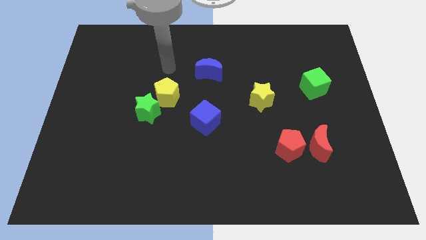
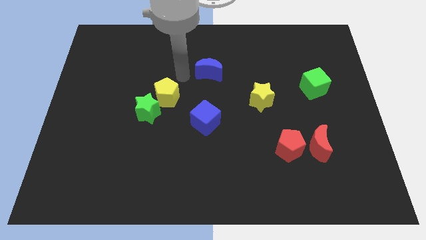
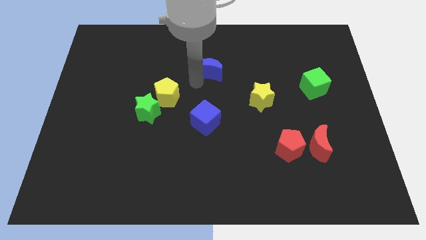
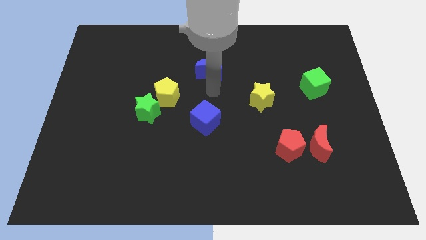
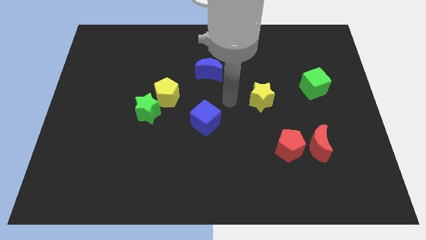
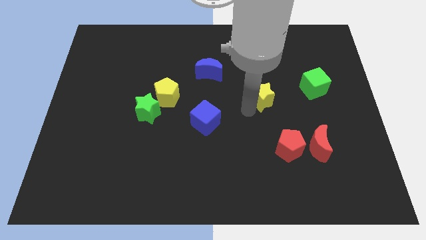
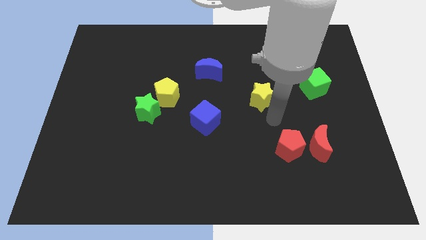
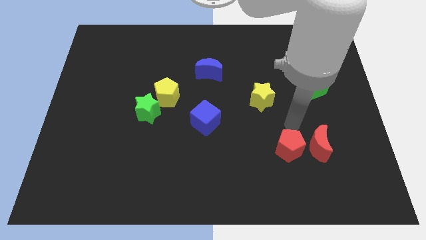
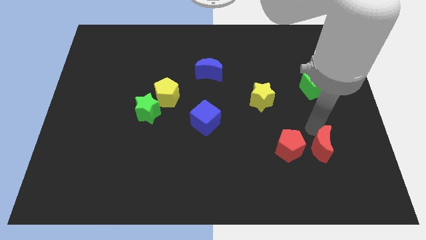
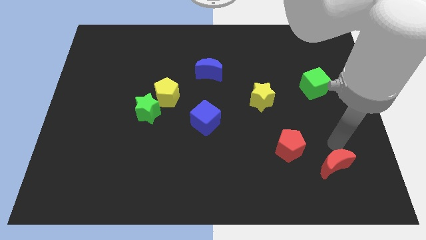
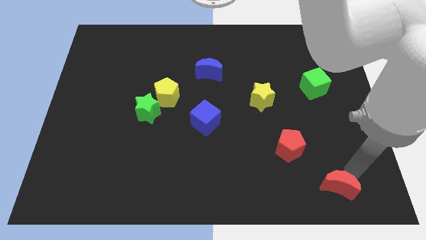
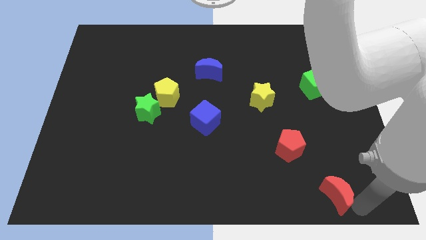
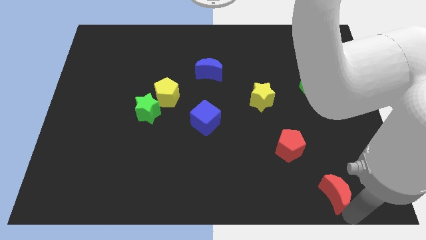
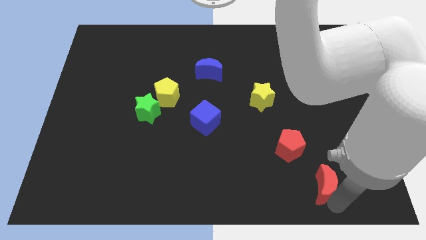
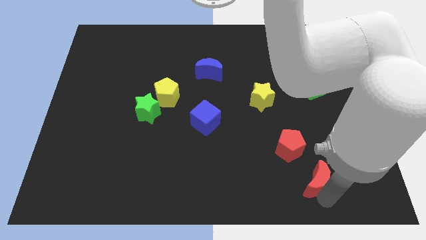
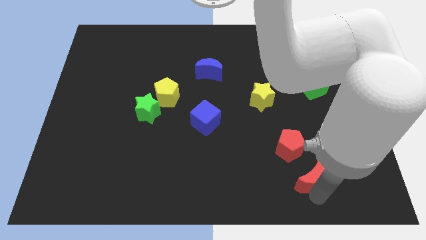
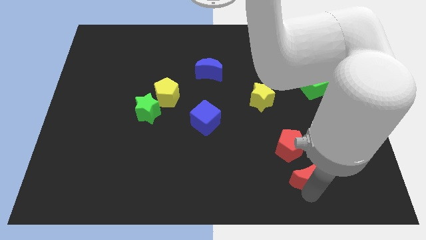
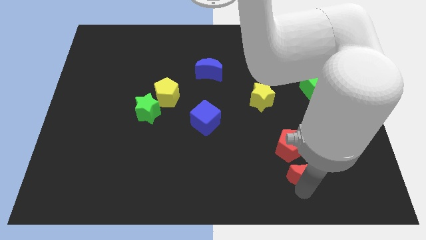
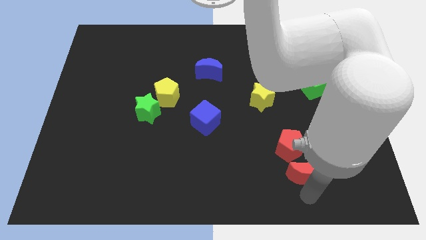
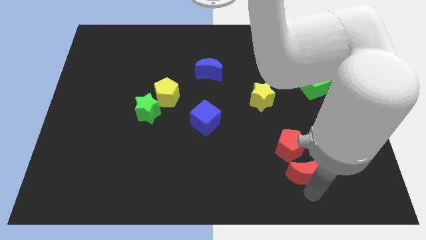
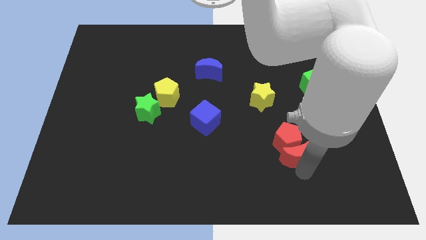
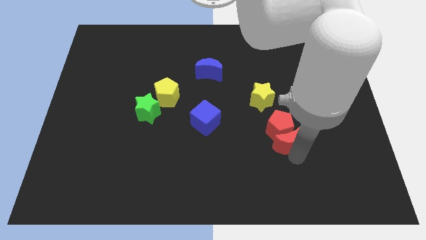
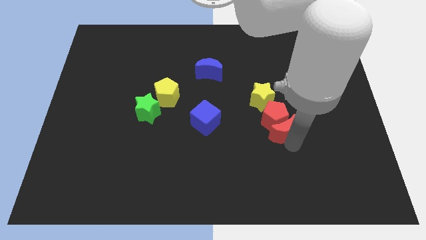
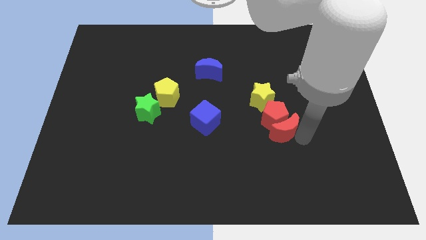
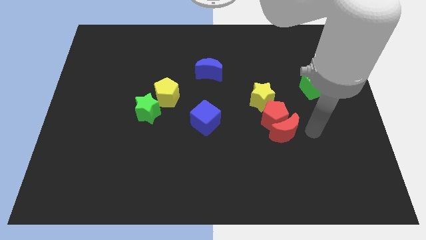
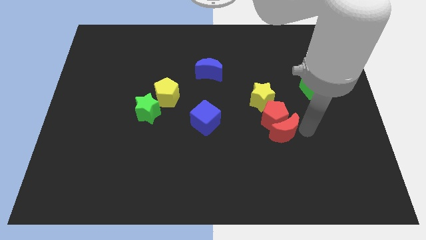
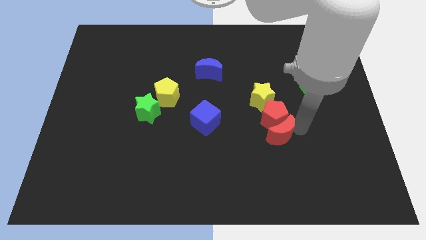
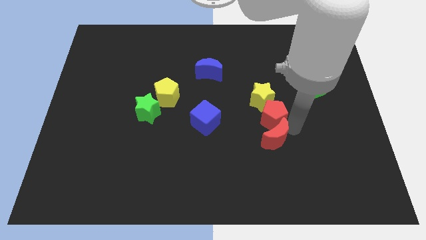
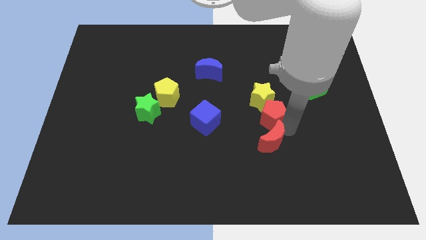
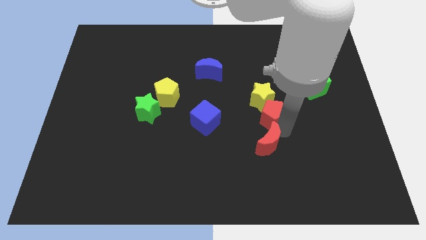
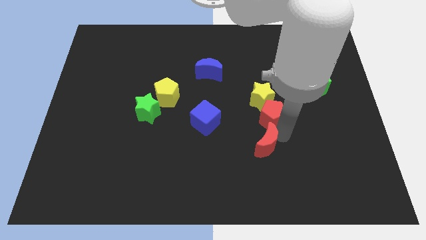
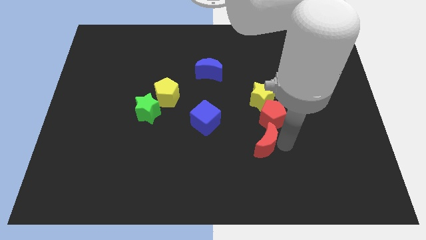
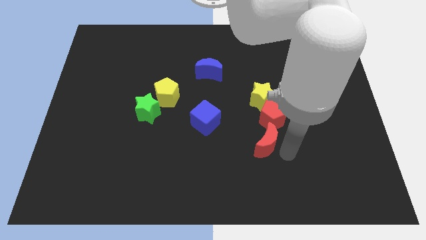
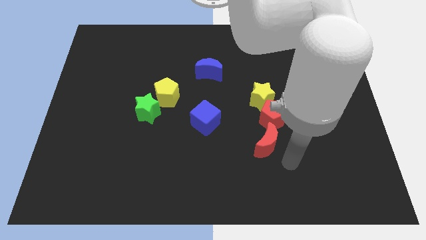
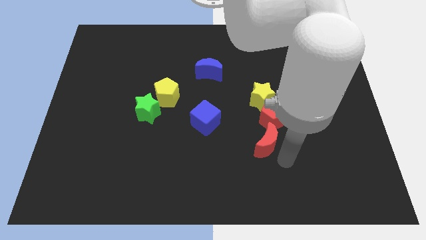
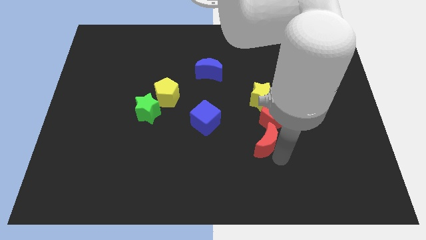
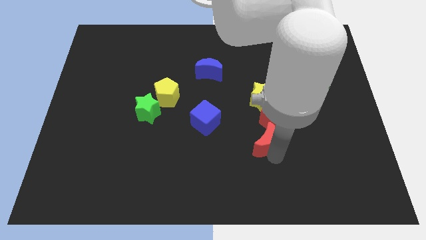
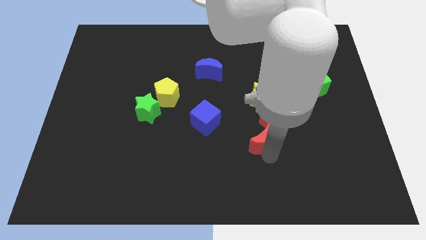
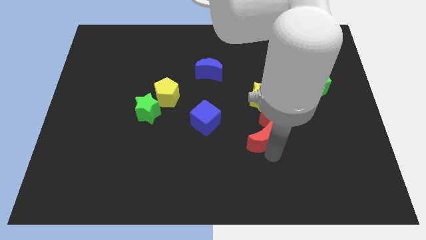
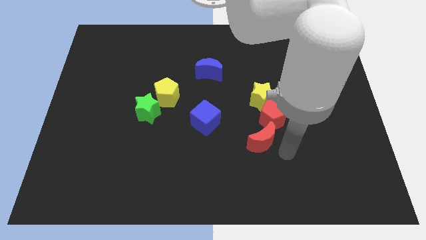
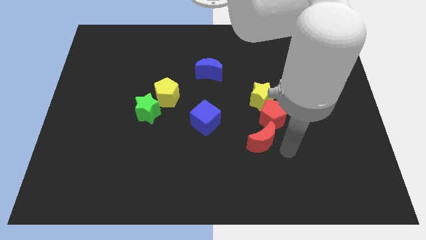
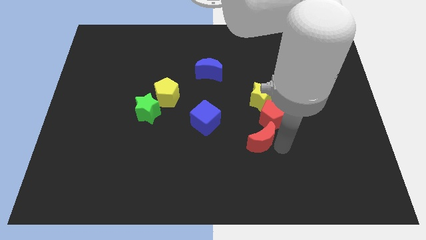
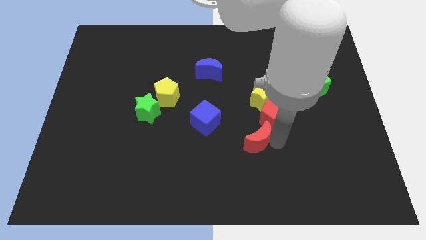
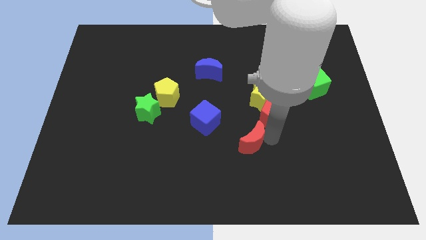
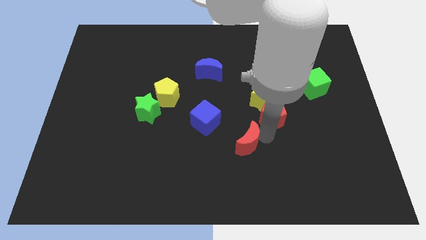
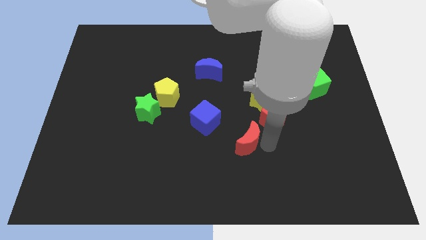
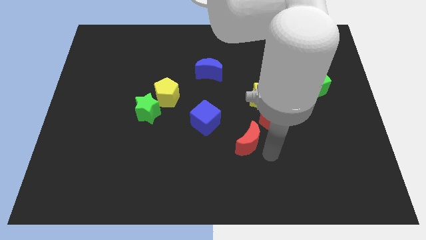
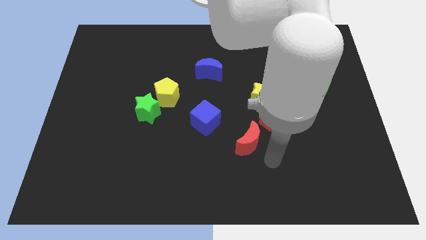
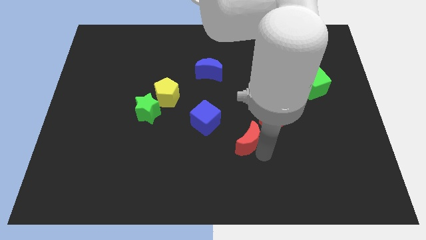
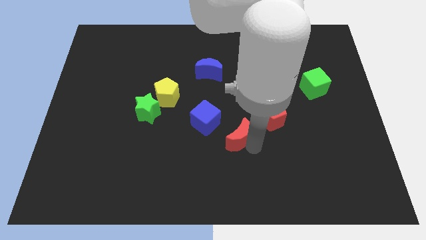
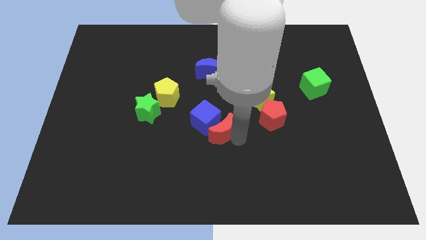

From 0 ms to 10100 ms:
slide the red moon to the blue cube

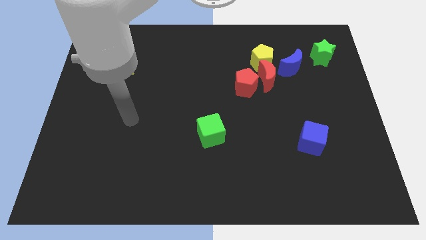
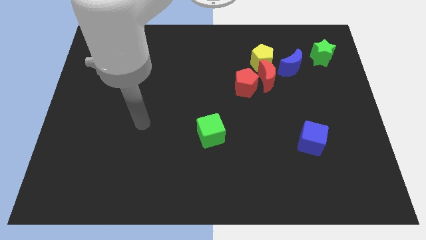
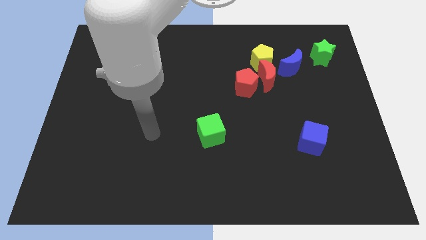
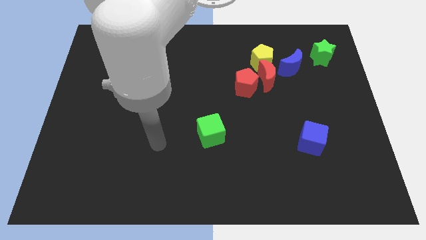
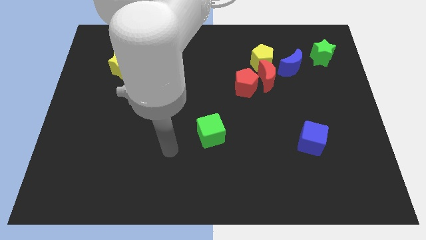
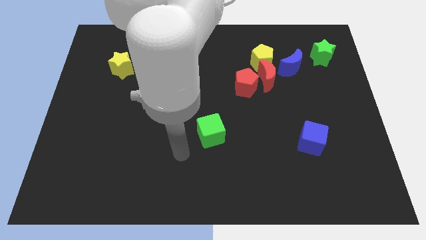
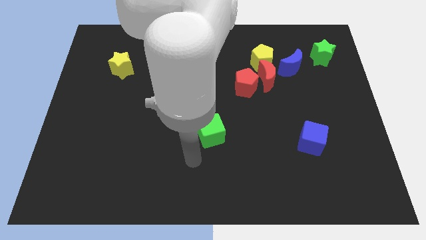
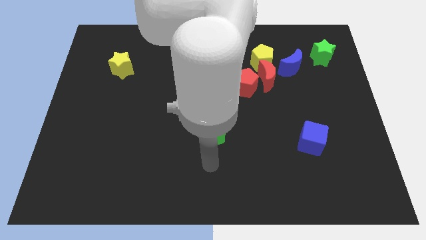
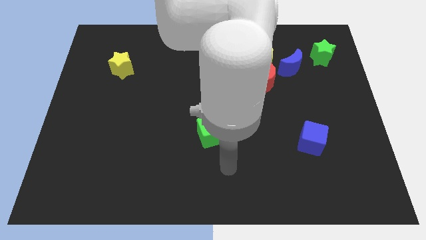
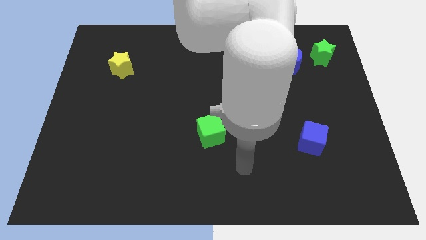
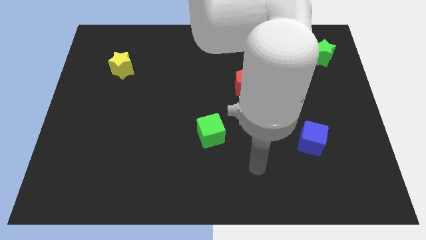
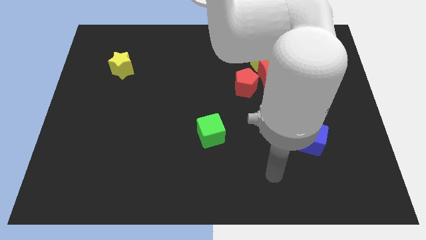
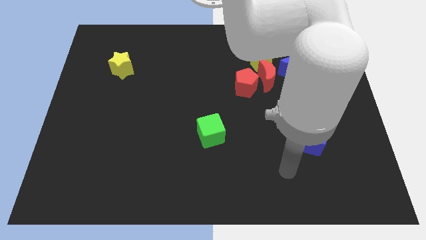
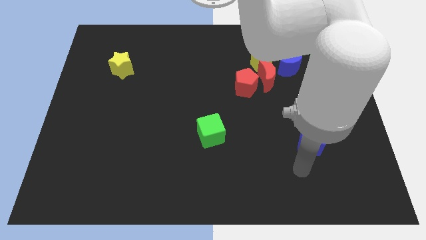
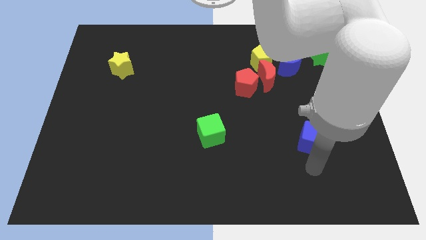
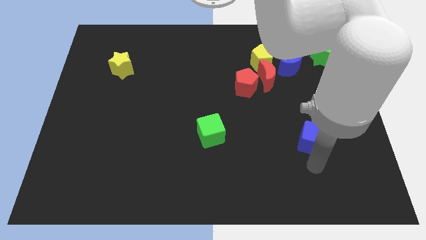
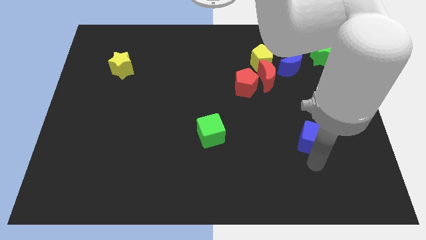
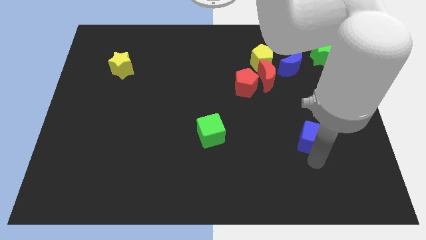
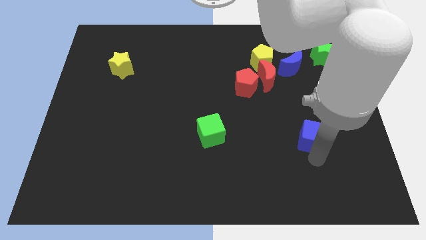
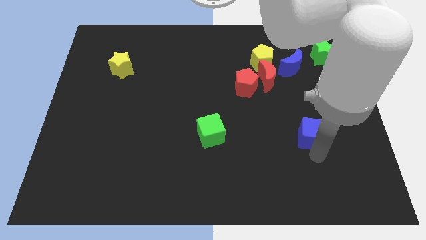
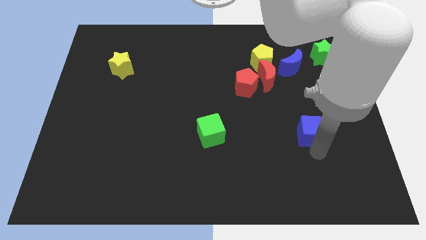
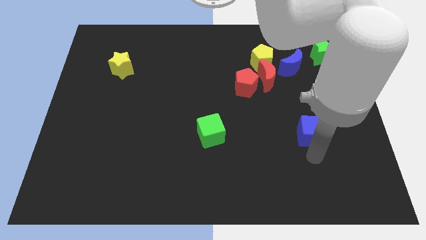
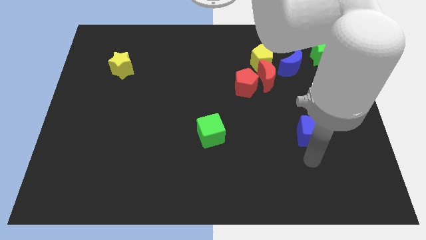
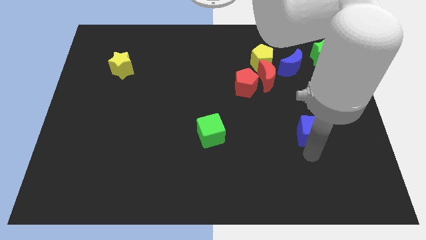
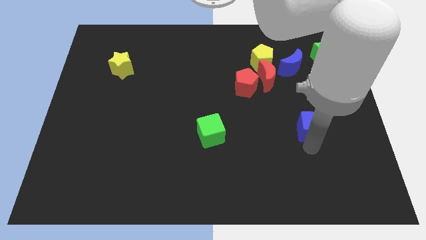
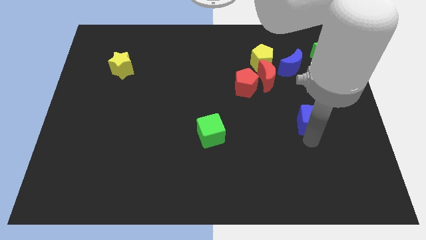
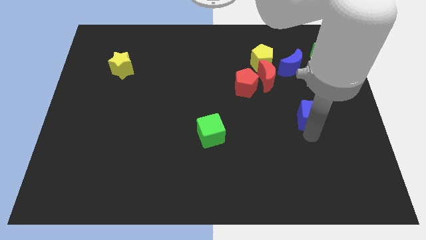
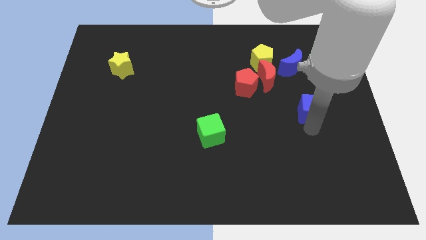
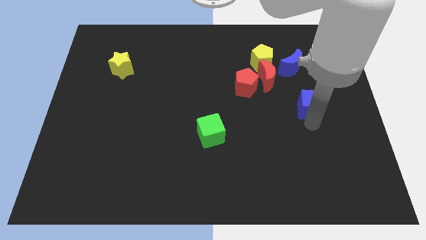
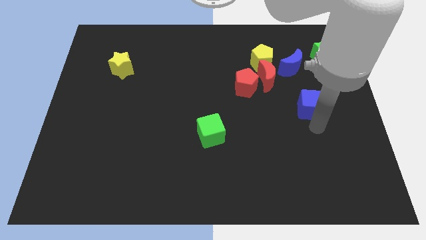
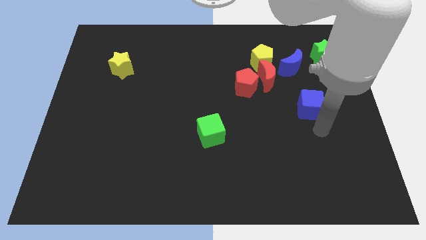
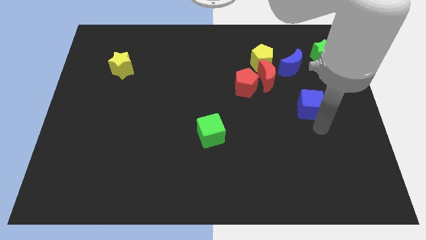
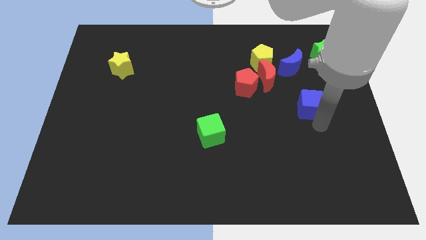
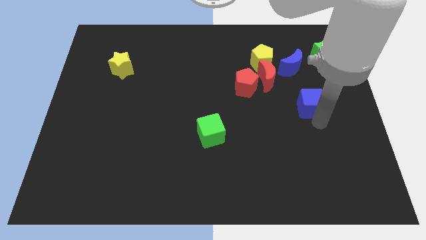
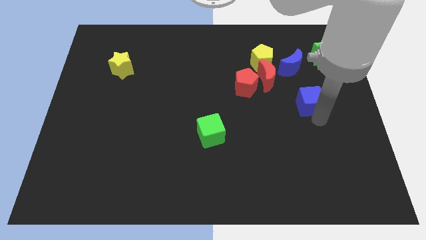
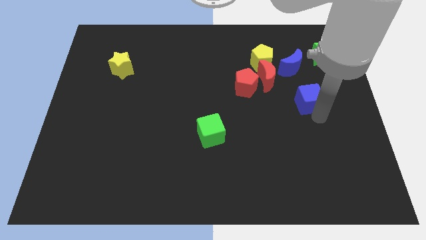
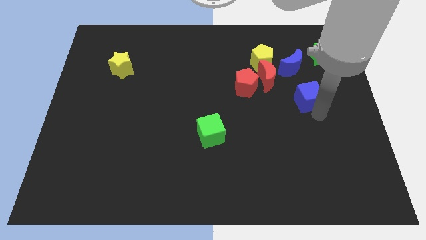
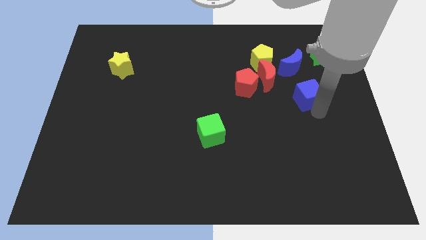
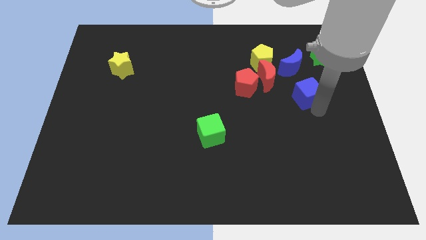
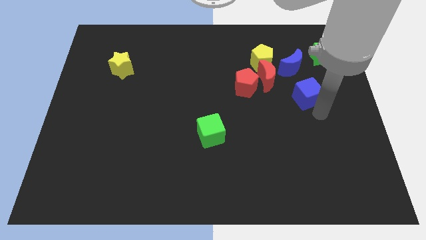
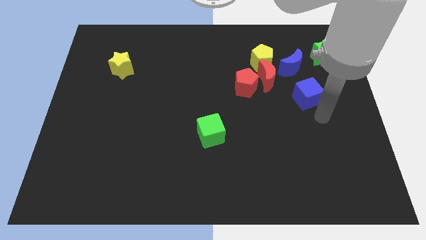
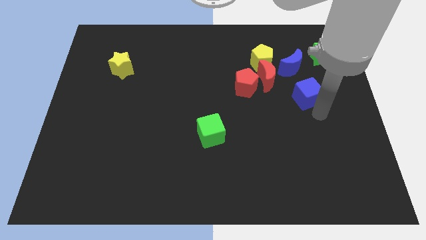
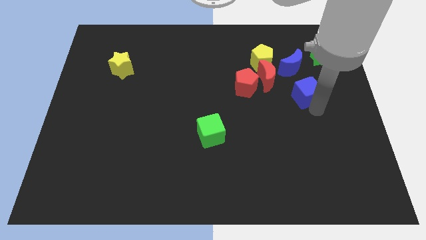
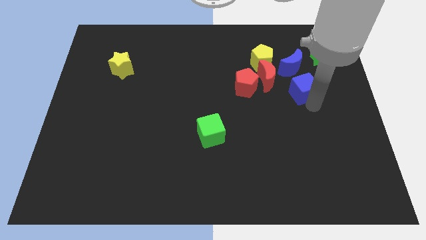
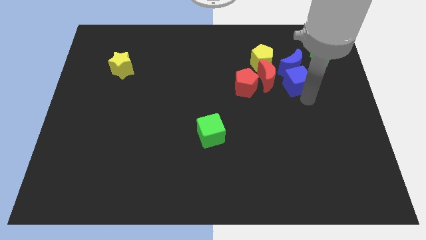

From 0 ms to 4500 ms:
slide the blue cube close to the blue moon
